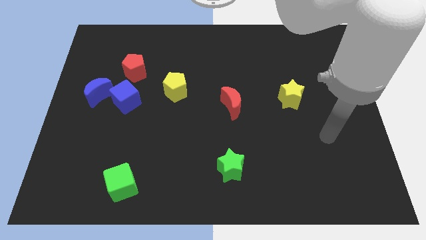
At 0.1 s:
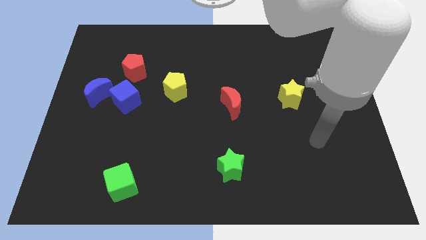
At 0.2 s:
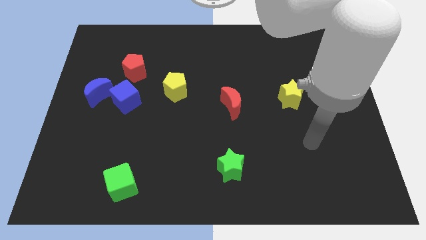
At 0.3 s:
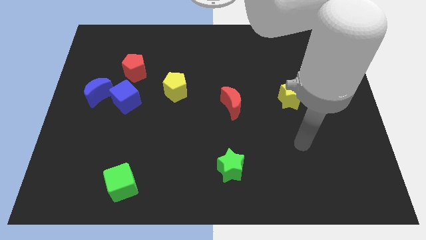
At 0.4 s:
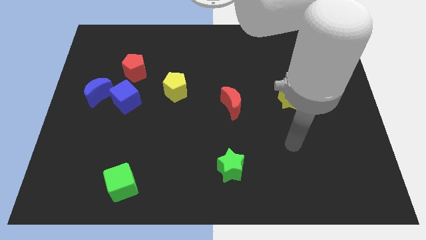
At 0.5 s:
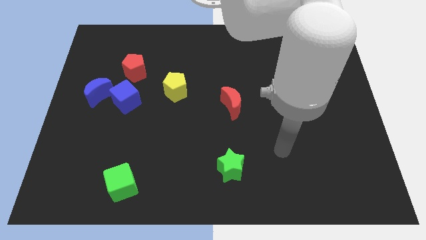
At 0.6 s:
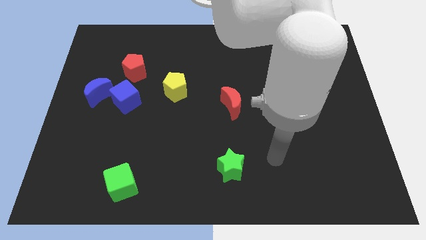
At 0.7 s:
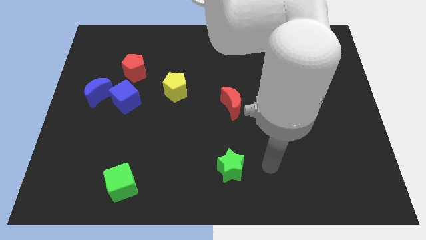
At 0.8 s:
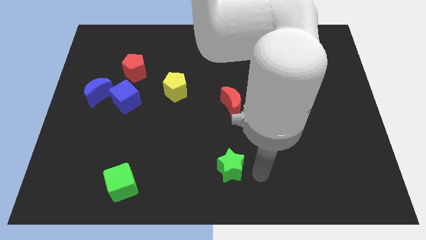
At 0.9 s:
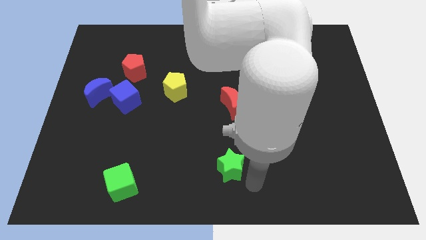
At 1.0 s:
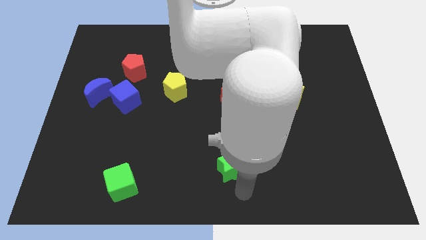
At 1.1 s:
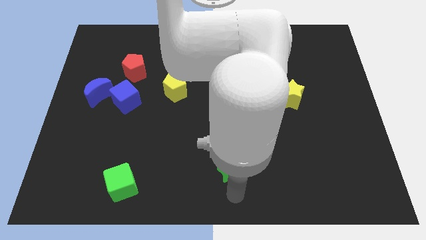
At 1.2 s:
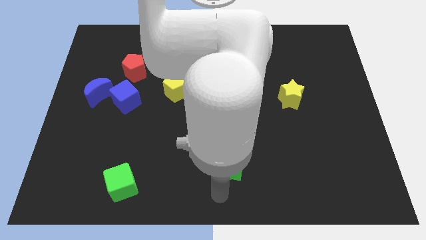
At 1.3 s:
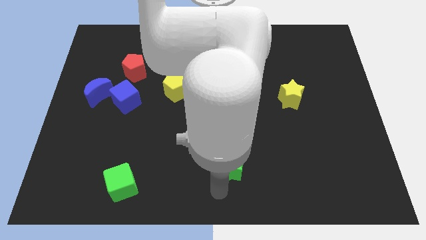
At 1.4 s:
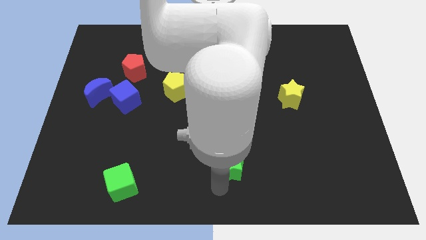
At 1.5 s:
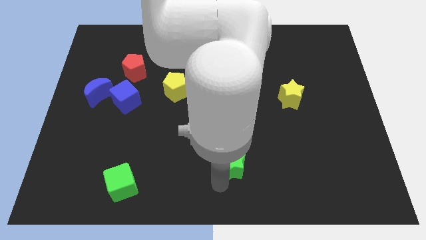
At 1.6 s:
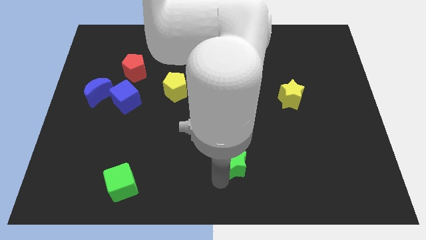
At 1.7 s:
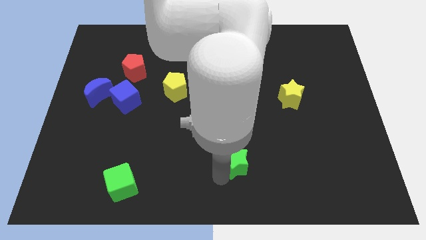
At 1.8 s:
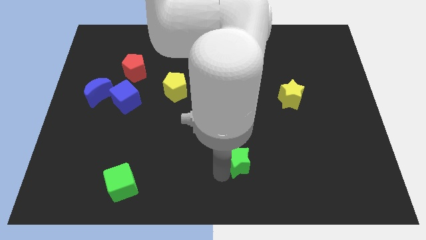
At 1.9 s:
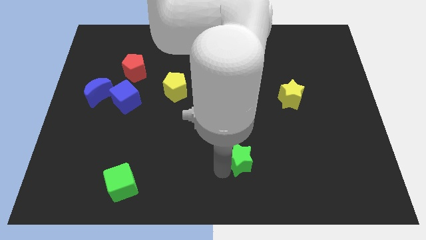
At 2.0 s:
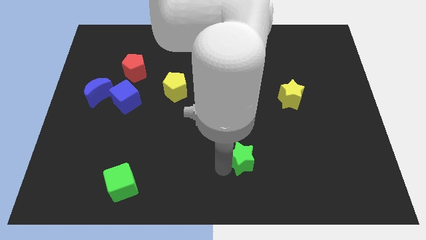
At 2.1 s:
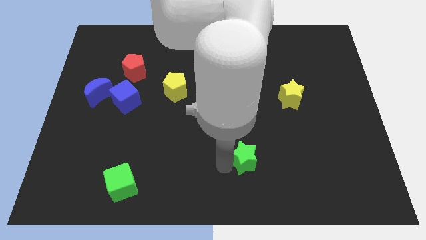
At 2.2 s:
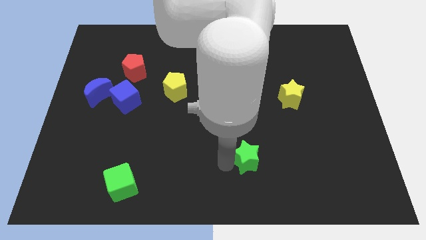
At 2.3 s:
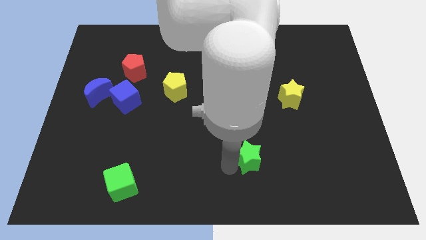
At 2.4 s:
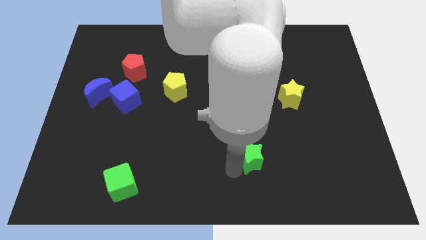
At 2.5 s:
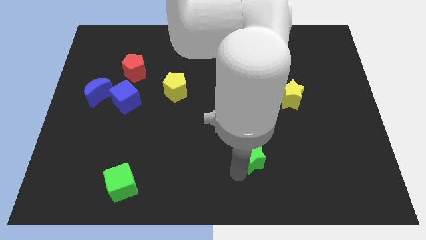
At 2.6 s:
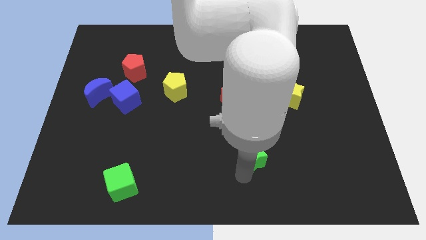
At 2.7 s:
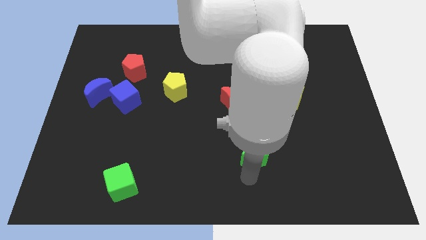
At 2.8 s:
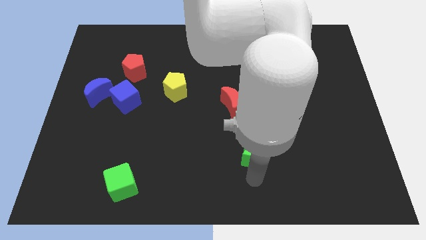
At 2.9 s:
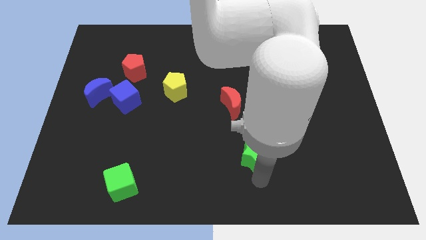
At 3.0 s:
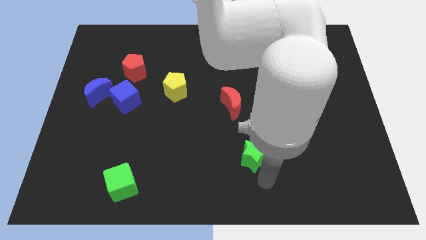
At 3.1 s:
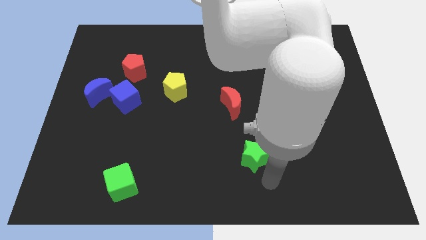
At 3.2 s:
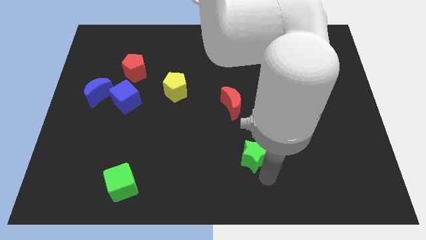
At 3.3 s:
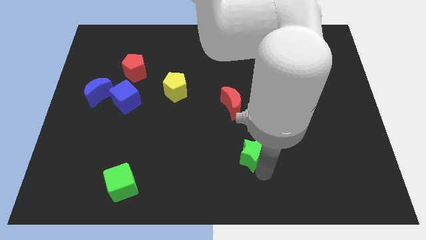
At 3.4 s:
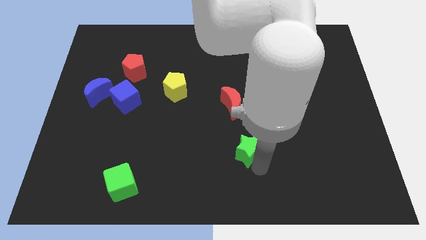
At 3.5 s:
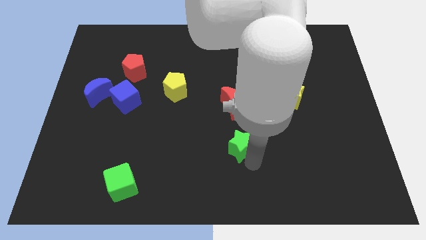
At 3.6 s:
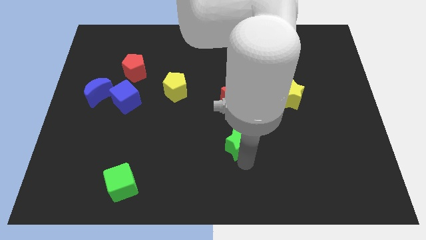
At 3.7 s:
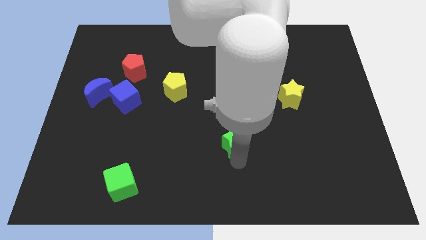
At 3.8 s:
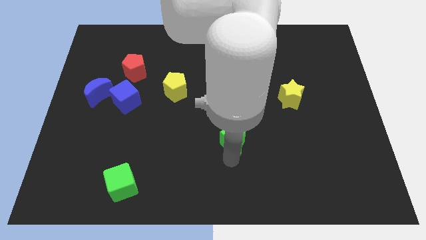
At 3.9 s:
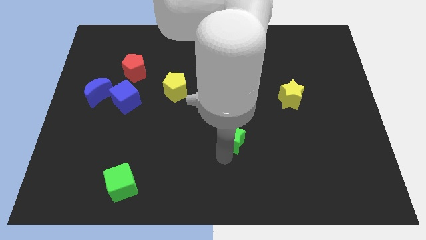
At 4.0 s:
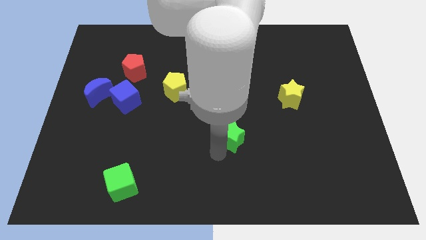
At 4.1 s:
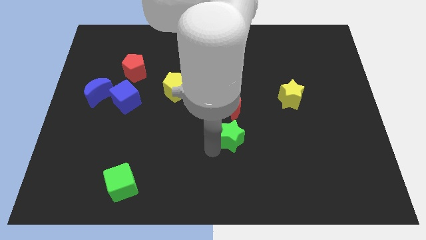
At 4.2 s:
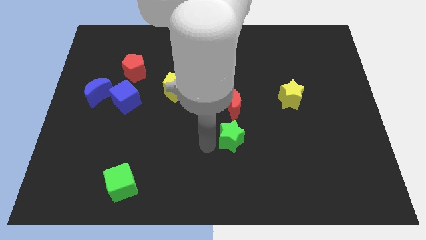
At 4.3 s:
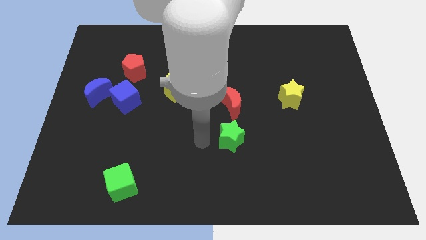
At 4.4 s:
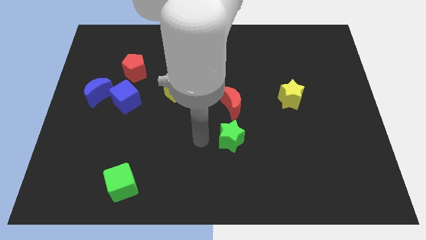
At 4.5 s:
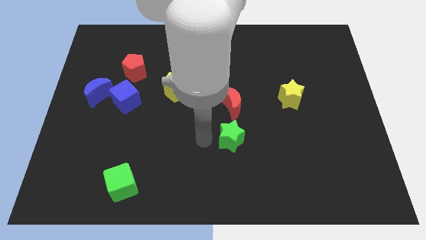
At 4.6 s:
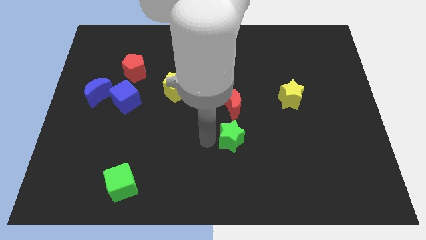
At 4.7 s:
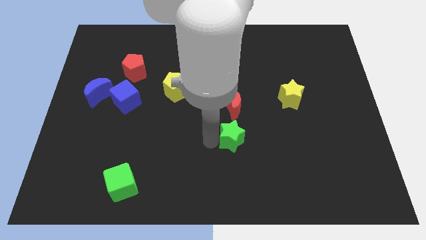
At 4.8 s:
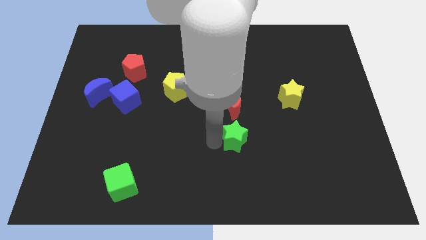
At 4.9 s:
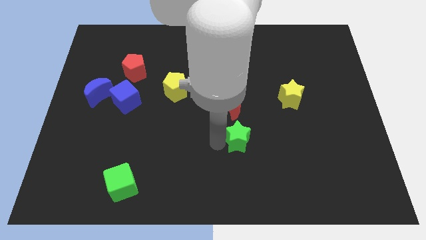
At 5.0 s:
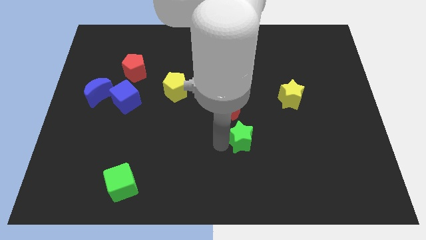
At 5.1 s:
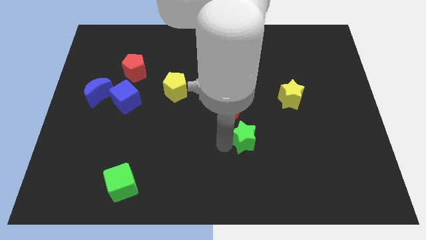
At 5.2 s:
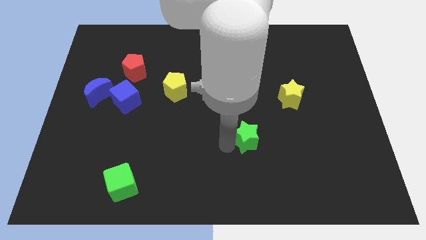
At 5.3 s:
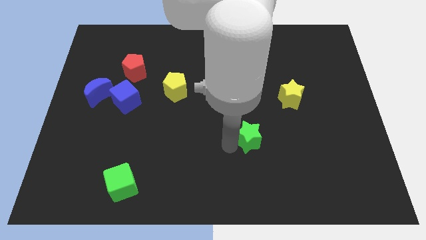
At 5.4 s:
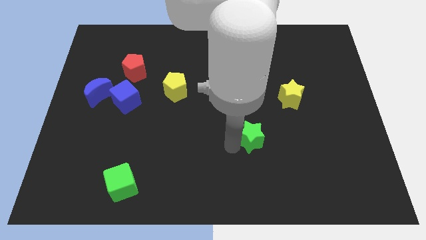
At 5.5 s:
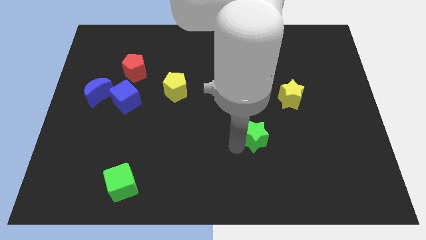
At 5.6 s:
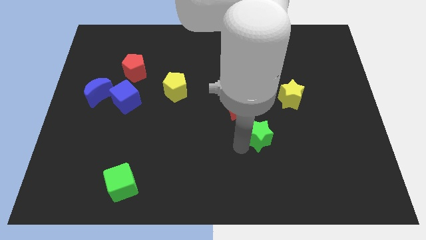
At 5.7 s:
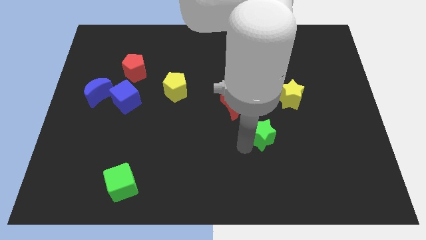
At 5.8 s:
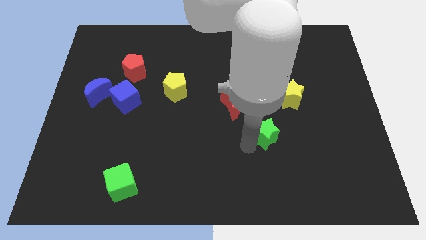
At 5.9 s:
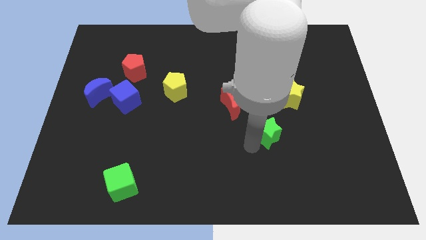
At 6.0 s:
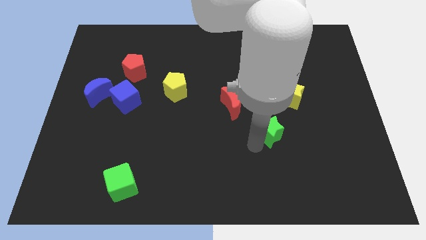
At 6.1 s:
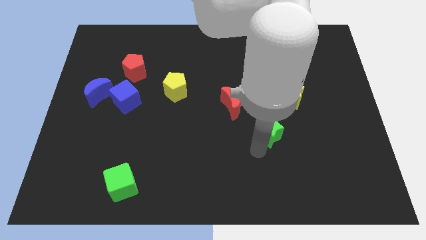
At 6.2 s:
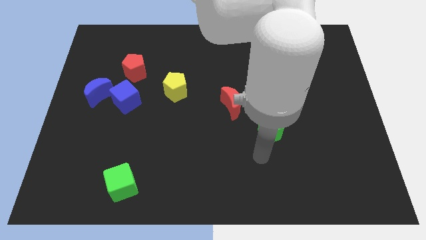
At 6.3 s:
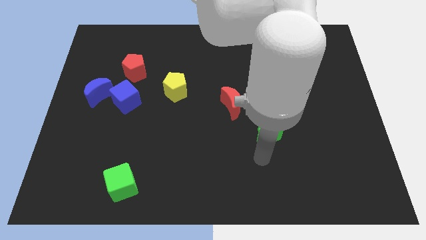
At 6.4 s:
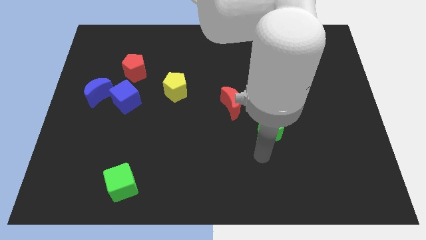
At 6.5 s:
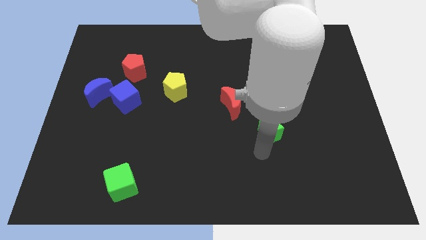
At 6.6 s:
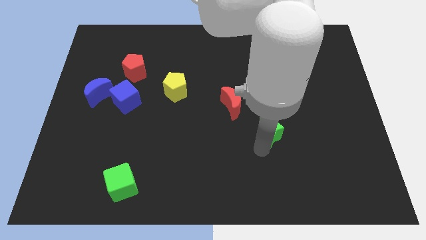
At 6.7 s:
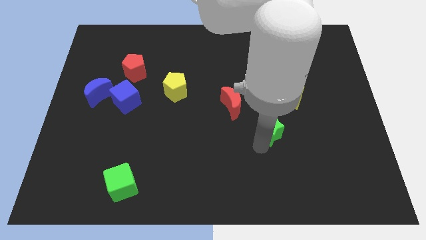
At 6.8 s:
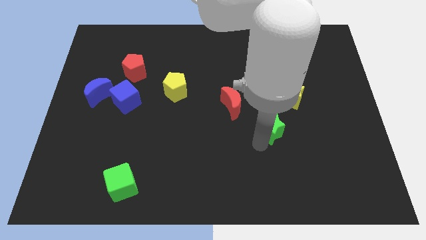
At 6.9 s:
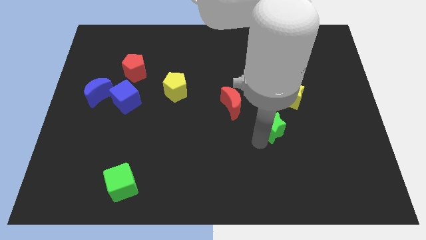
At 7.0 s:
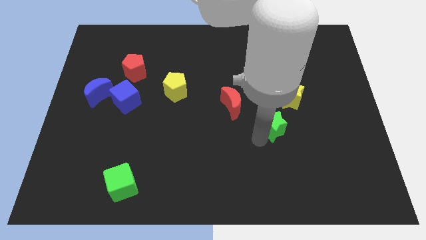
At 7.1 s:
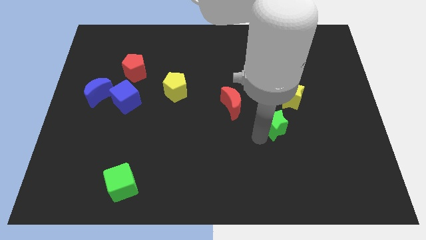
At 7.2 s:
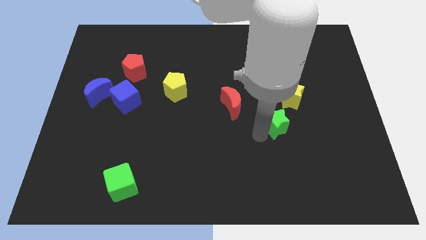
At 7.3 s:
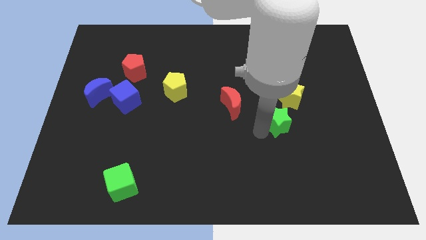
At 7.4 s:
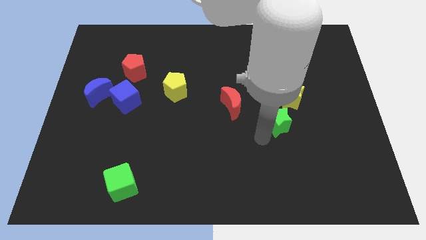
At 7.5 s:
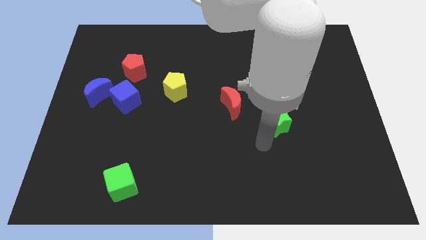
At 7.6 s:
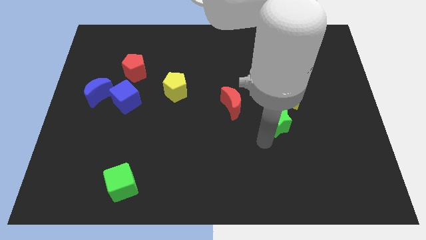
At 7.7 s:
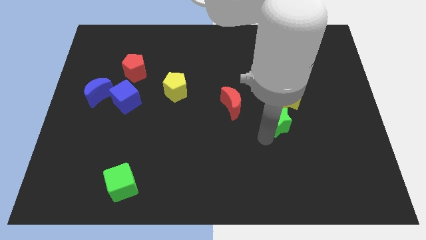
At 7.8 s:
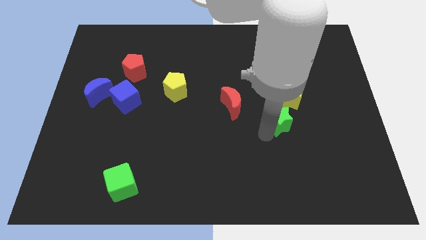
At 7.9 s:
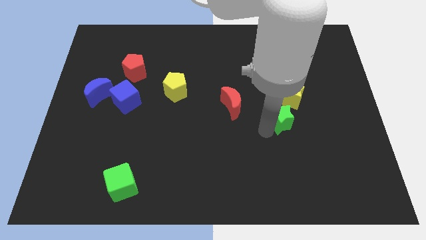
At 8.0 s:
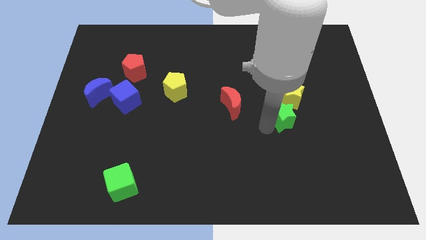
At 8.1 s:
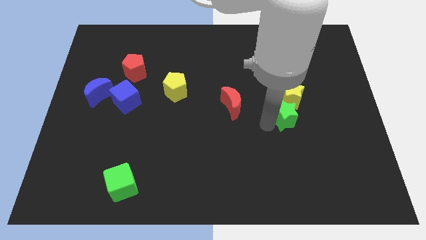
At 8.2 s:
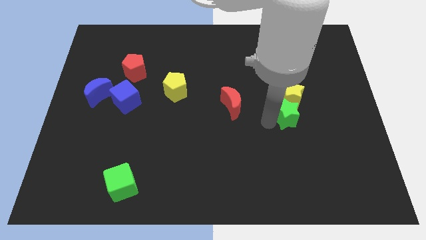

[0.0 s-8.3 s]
slide the green star to the yellow star
